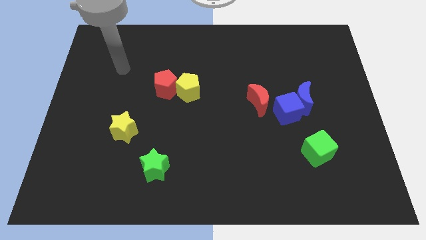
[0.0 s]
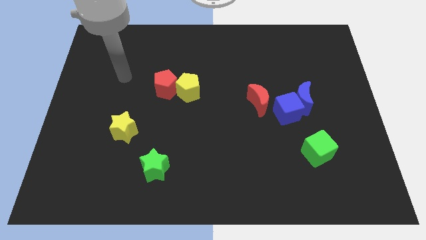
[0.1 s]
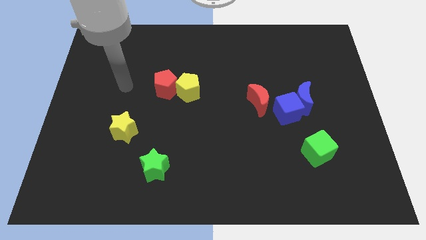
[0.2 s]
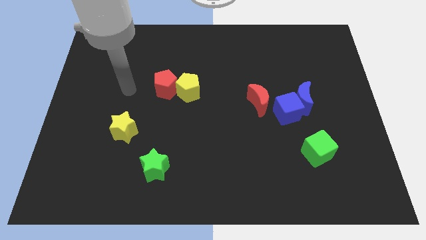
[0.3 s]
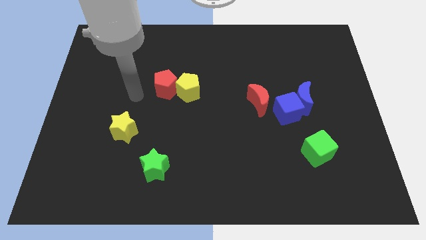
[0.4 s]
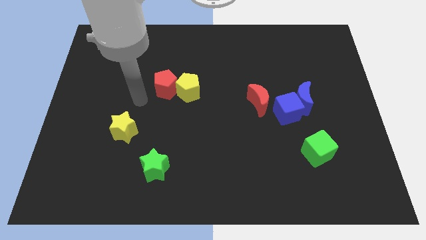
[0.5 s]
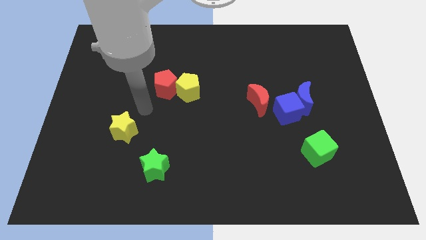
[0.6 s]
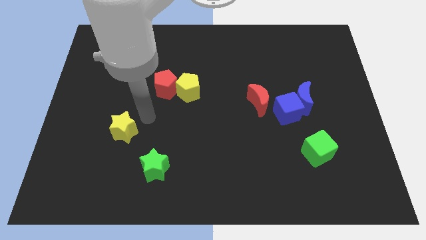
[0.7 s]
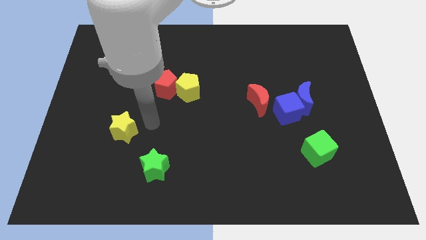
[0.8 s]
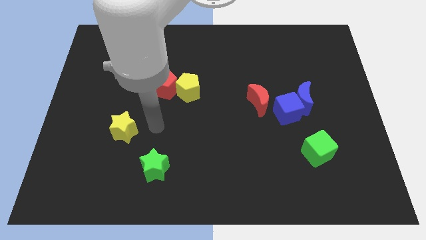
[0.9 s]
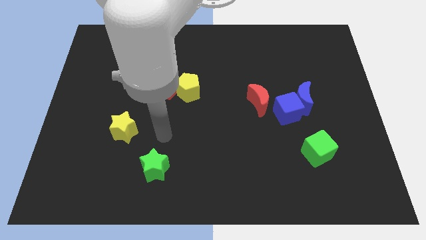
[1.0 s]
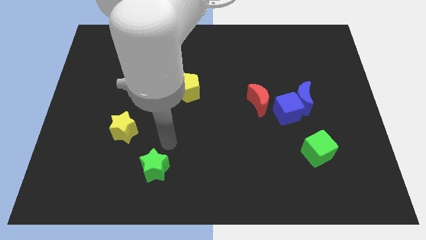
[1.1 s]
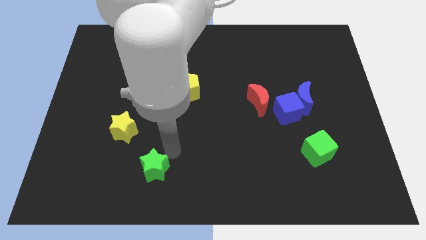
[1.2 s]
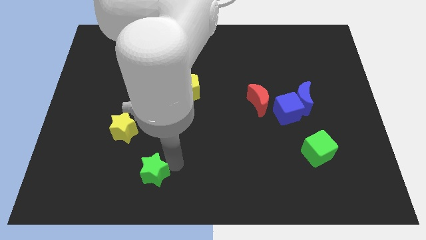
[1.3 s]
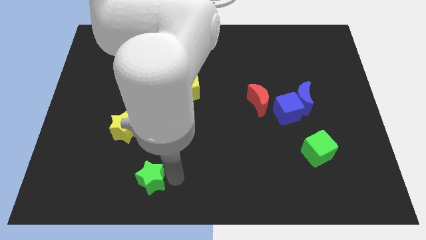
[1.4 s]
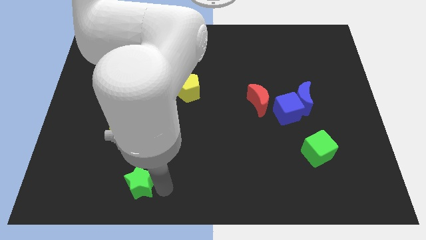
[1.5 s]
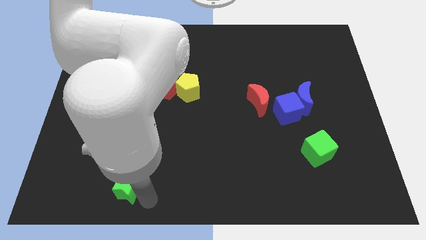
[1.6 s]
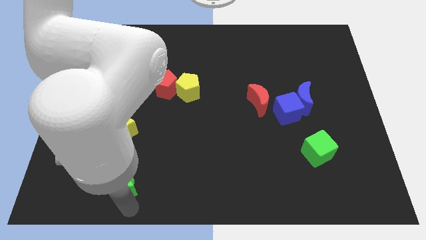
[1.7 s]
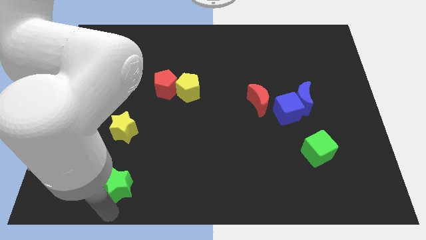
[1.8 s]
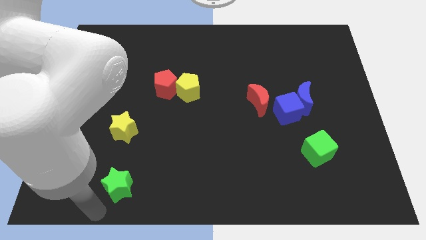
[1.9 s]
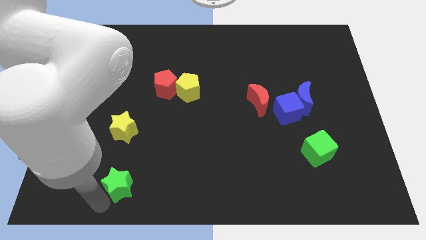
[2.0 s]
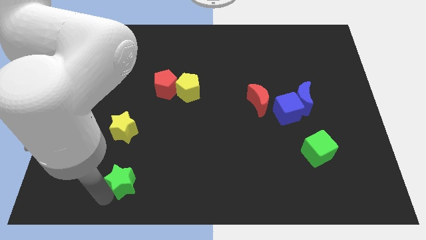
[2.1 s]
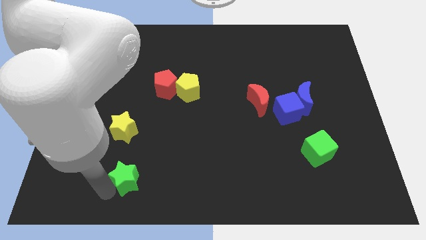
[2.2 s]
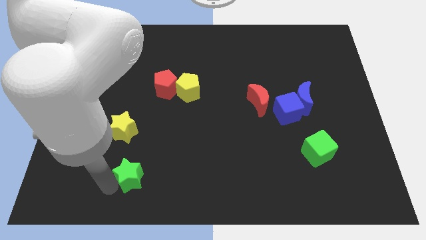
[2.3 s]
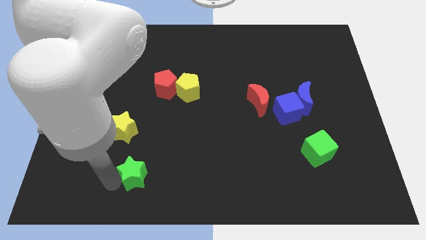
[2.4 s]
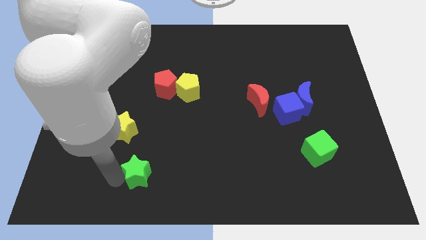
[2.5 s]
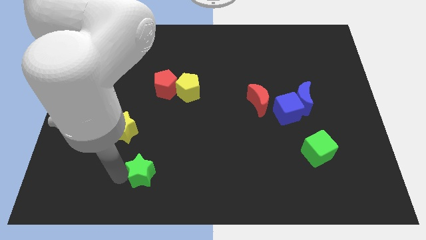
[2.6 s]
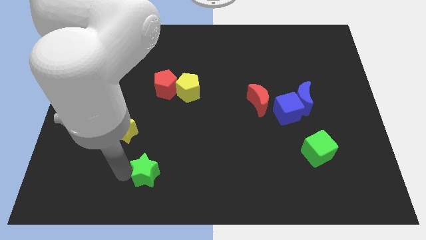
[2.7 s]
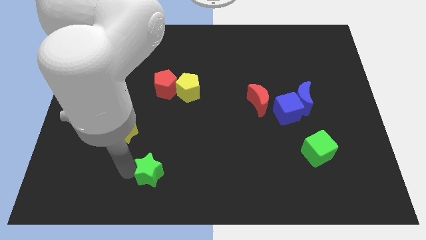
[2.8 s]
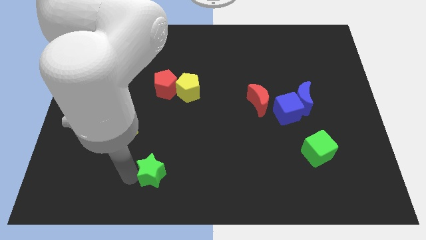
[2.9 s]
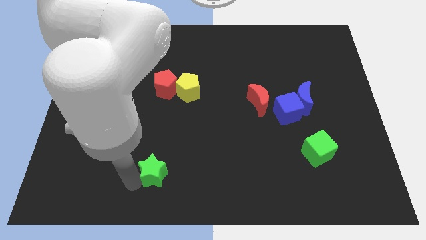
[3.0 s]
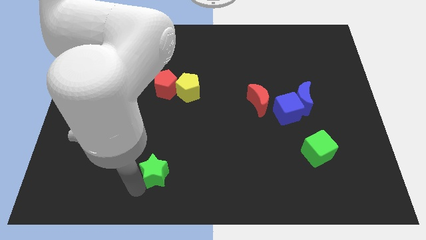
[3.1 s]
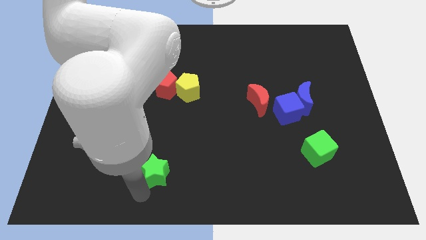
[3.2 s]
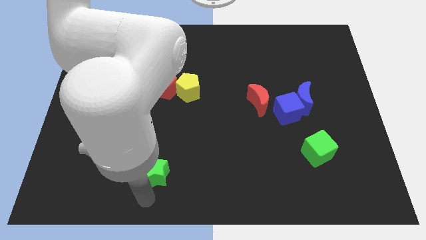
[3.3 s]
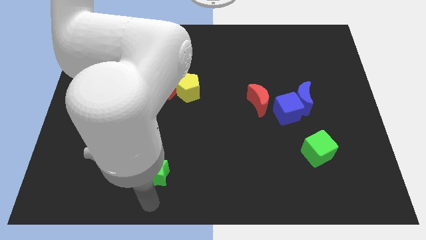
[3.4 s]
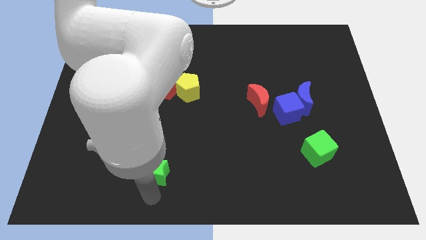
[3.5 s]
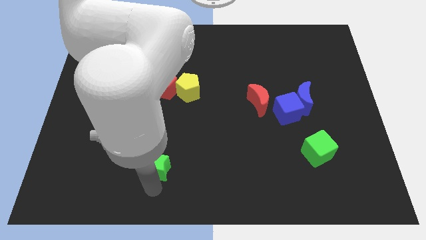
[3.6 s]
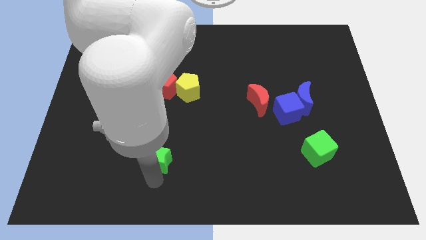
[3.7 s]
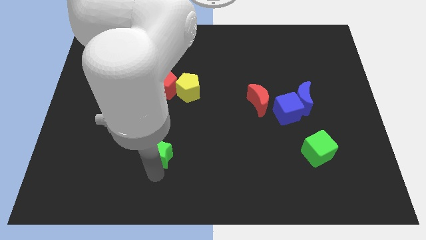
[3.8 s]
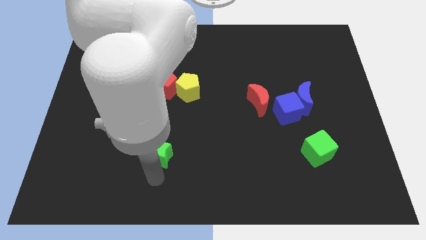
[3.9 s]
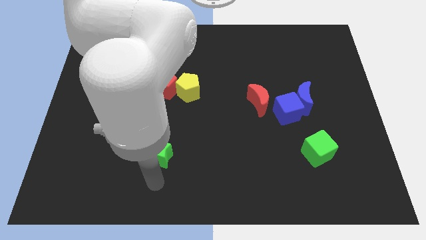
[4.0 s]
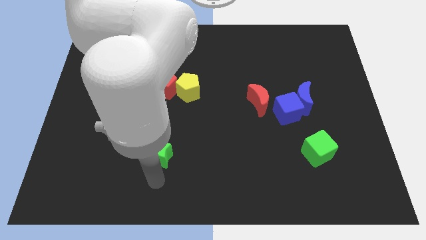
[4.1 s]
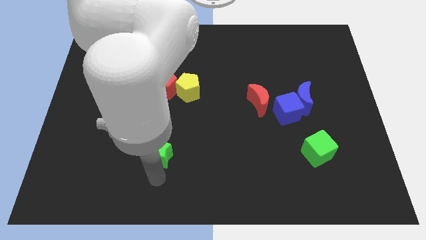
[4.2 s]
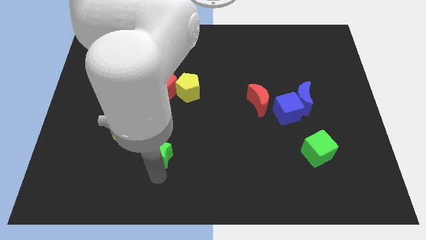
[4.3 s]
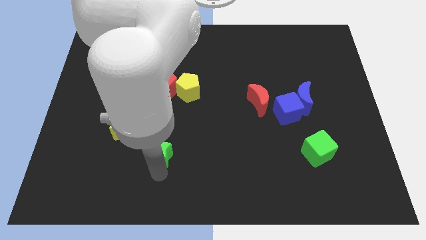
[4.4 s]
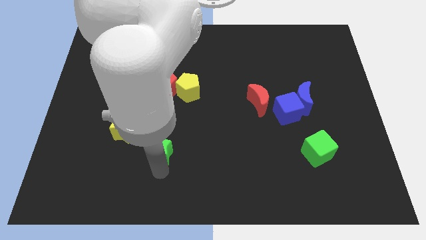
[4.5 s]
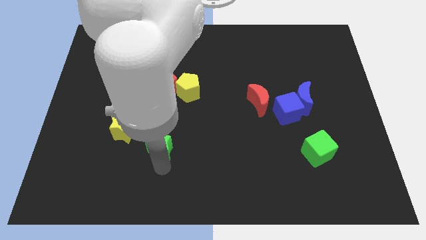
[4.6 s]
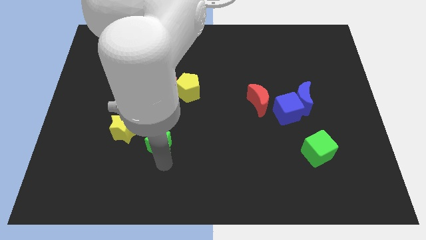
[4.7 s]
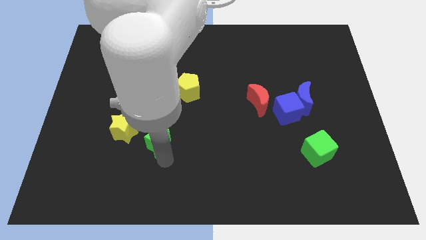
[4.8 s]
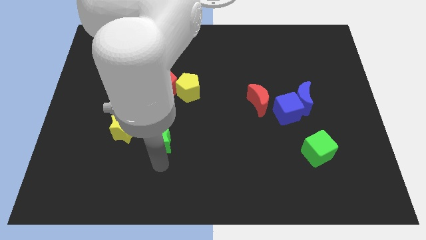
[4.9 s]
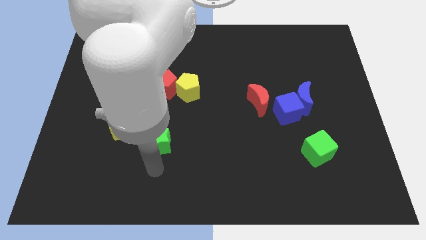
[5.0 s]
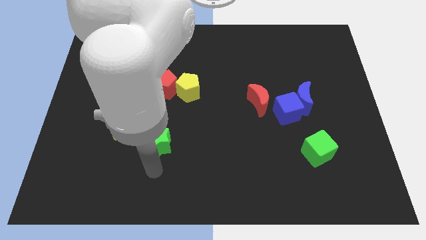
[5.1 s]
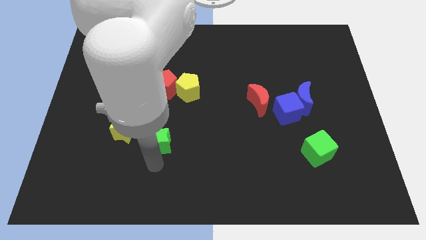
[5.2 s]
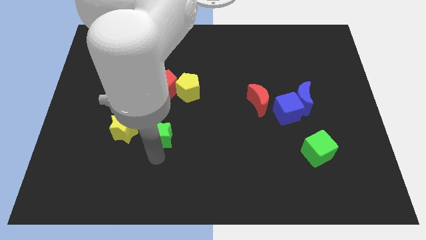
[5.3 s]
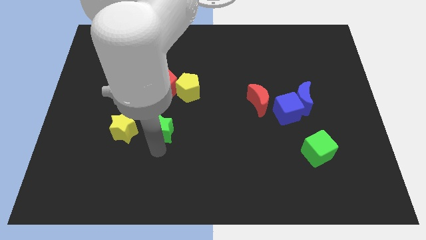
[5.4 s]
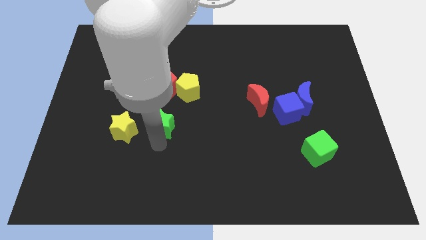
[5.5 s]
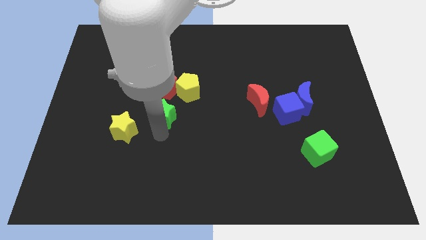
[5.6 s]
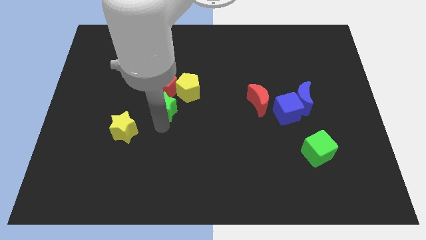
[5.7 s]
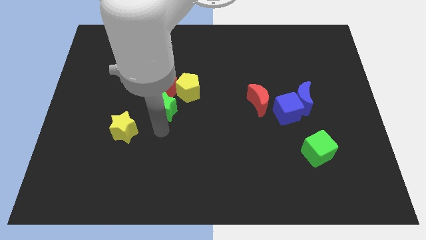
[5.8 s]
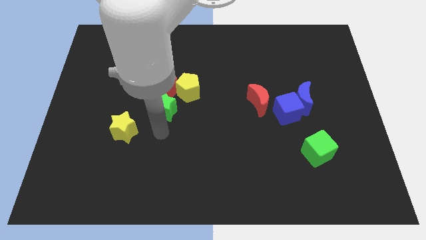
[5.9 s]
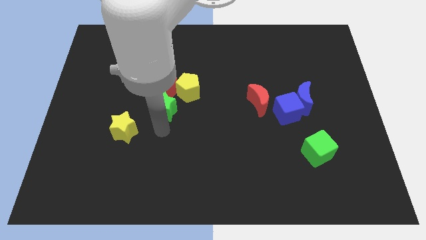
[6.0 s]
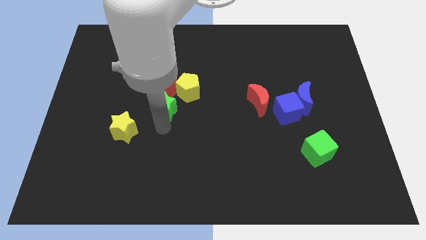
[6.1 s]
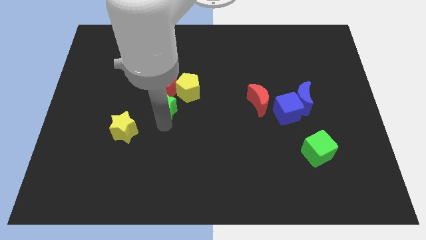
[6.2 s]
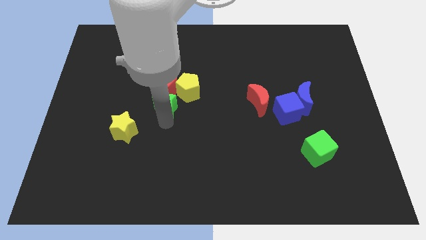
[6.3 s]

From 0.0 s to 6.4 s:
move the green star to the red pentagon
